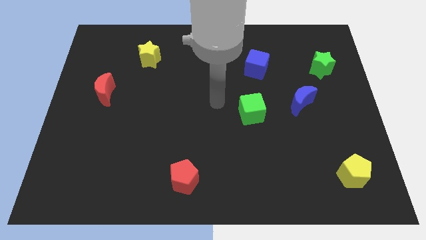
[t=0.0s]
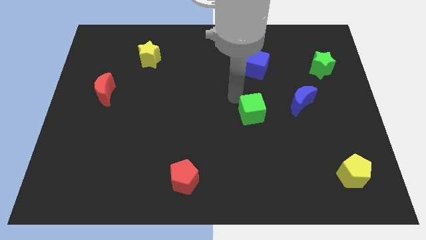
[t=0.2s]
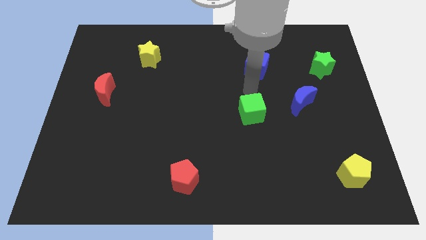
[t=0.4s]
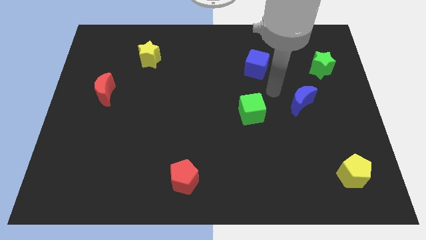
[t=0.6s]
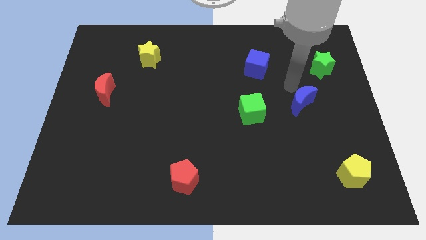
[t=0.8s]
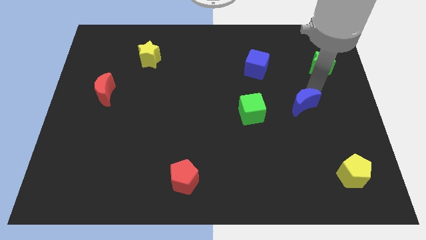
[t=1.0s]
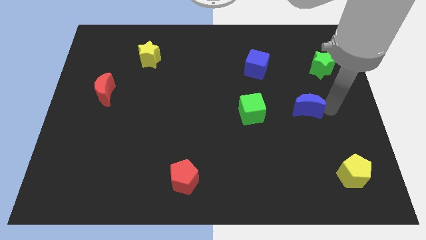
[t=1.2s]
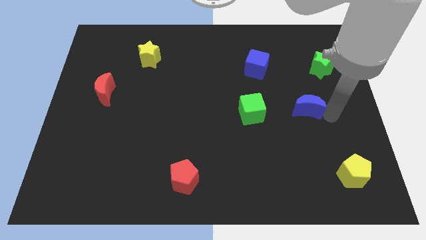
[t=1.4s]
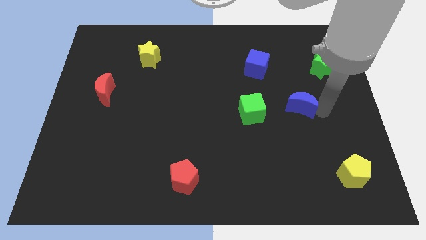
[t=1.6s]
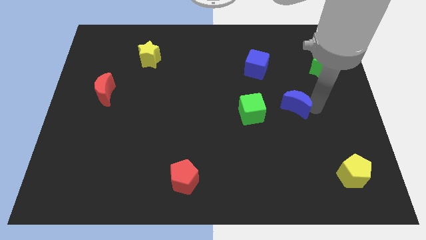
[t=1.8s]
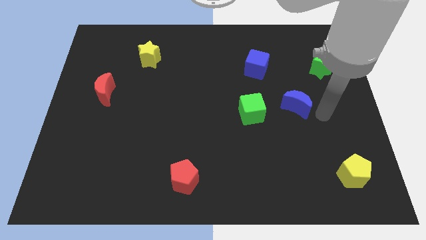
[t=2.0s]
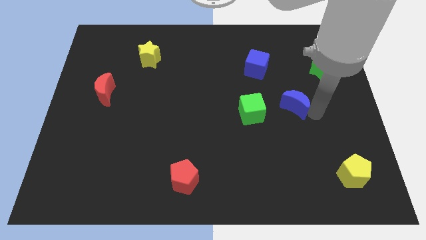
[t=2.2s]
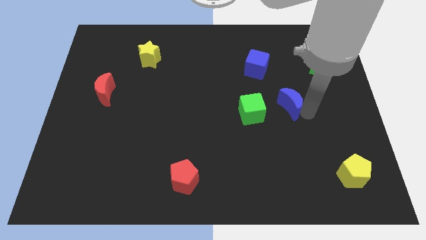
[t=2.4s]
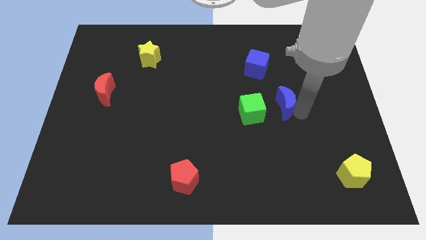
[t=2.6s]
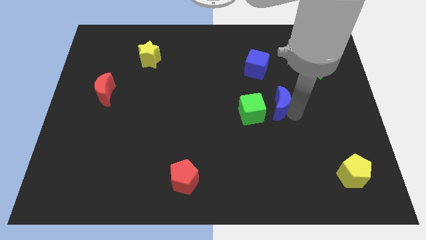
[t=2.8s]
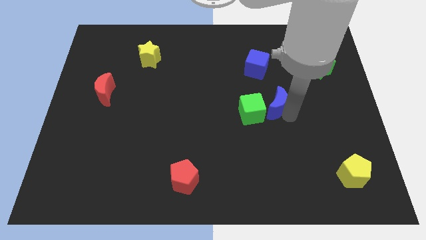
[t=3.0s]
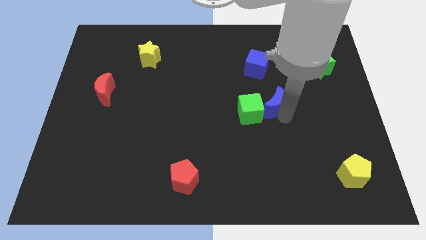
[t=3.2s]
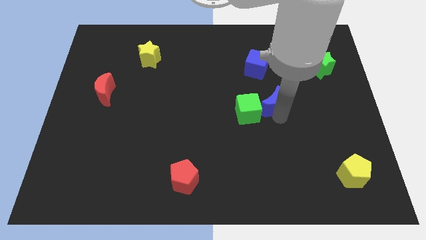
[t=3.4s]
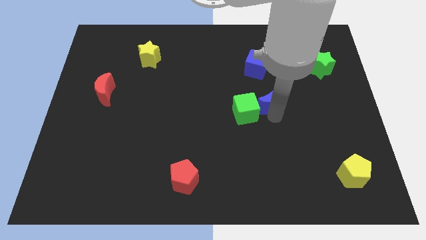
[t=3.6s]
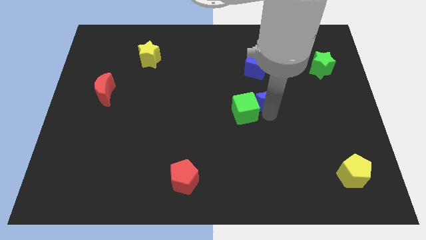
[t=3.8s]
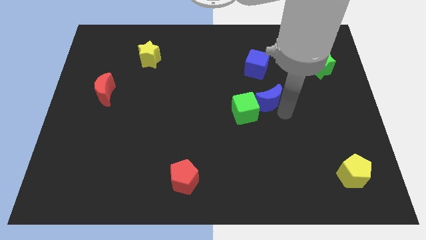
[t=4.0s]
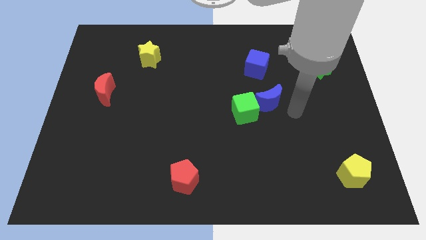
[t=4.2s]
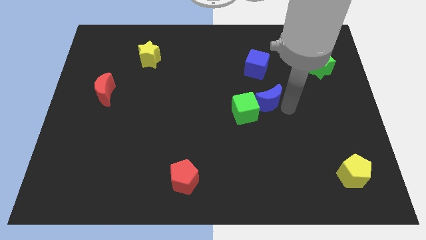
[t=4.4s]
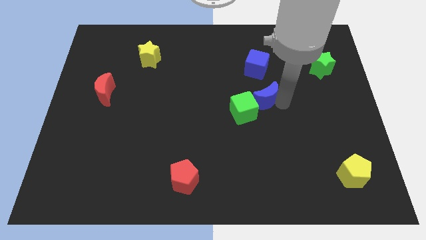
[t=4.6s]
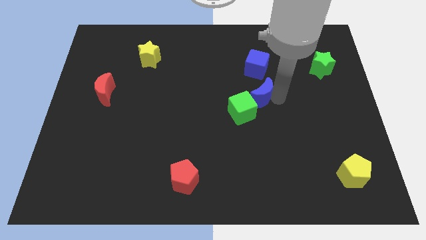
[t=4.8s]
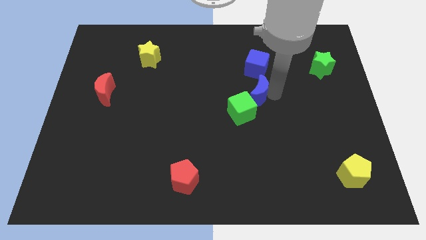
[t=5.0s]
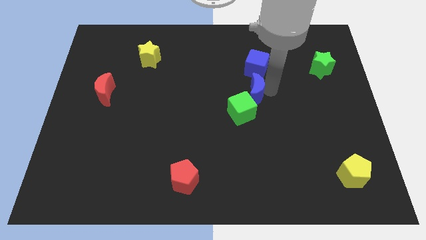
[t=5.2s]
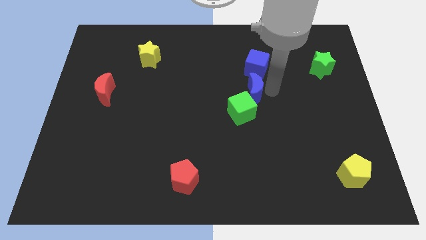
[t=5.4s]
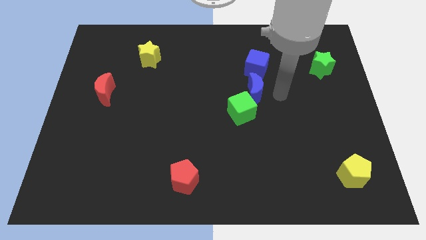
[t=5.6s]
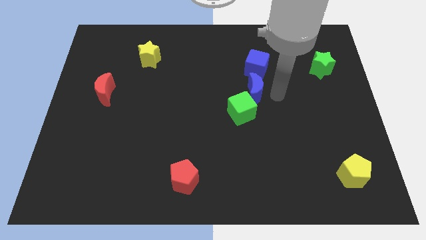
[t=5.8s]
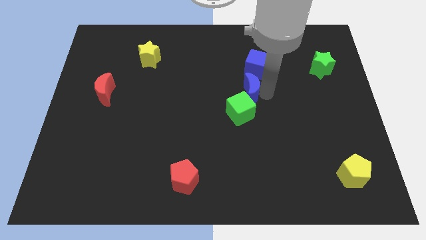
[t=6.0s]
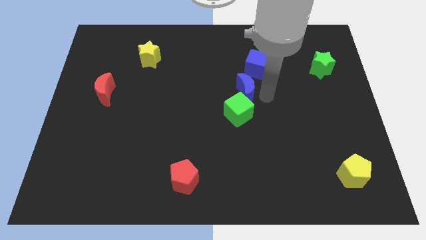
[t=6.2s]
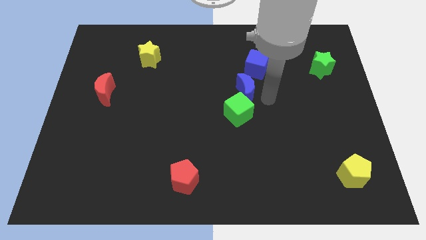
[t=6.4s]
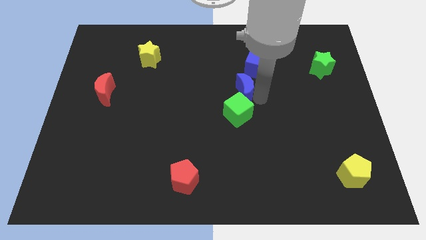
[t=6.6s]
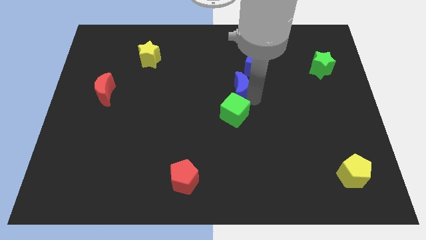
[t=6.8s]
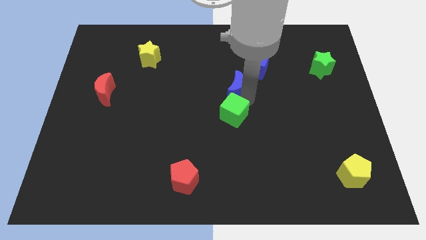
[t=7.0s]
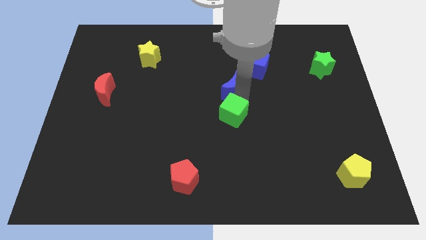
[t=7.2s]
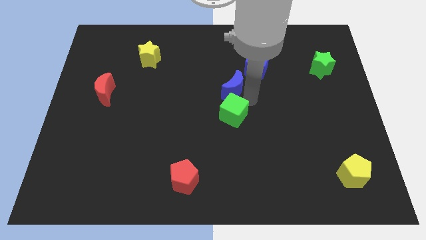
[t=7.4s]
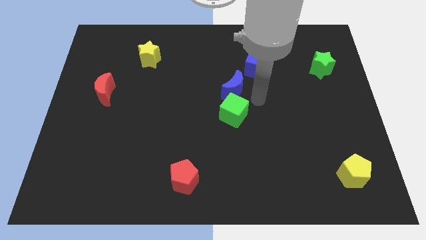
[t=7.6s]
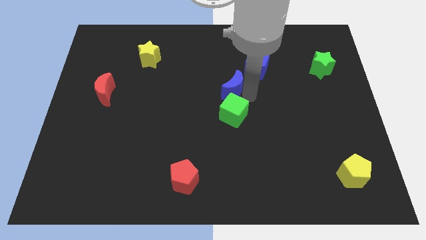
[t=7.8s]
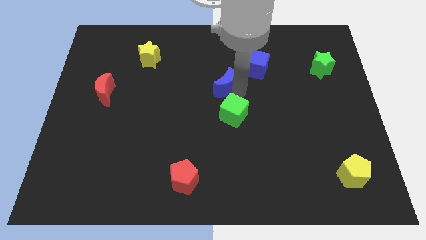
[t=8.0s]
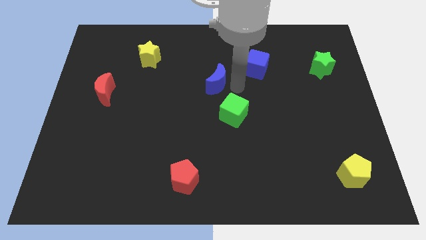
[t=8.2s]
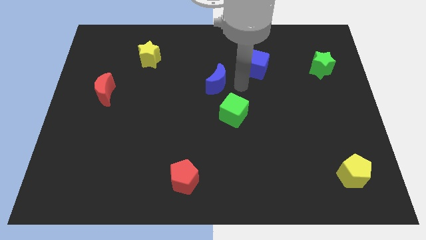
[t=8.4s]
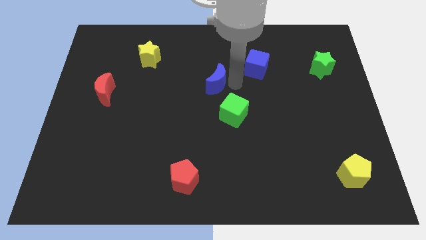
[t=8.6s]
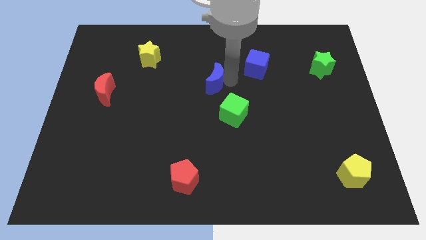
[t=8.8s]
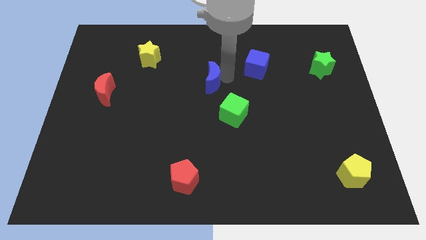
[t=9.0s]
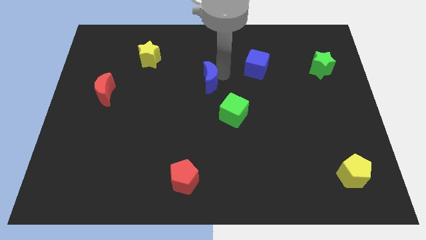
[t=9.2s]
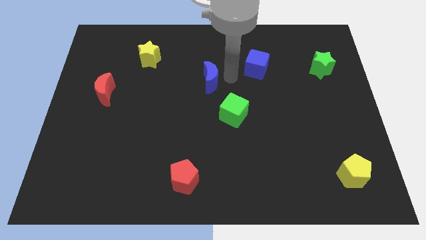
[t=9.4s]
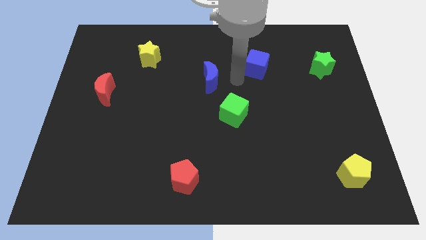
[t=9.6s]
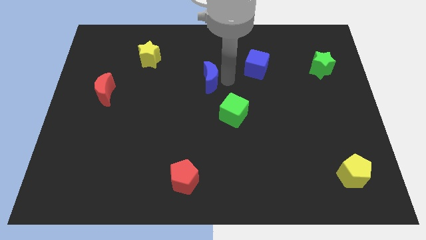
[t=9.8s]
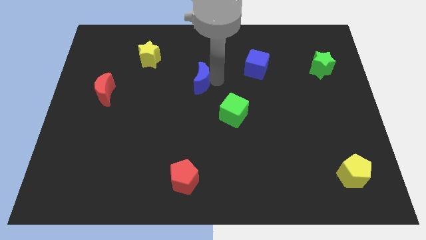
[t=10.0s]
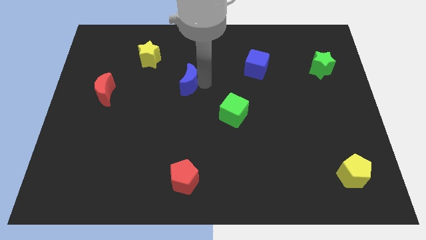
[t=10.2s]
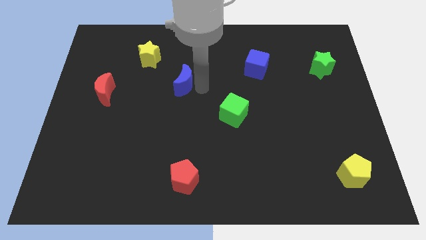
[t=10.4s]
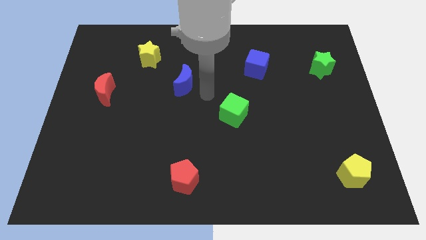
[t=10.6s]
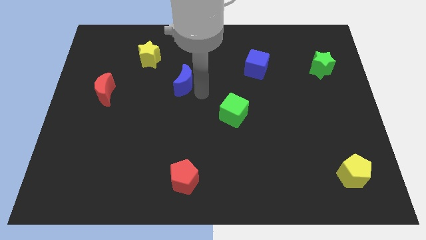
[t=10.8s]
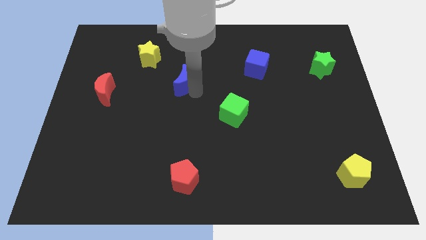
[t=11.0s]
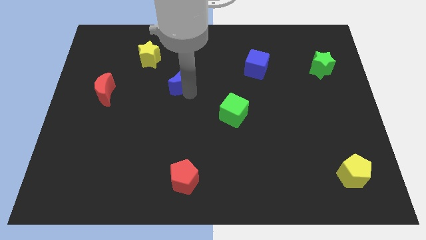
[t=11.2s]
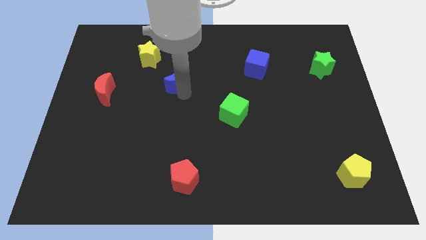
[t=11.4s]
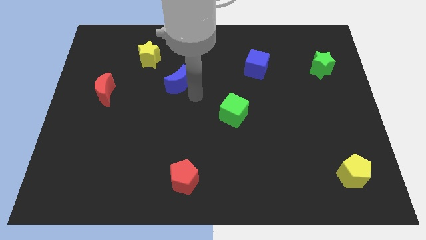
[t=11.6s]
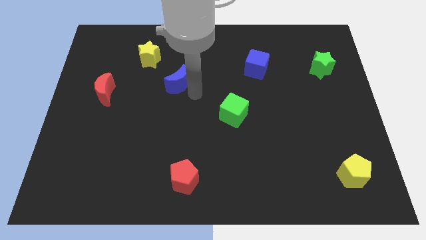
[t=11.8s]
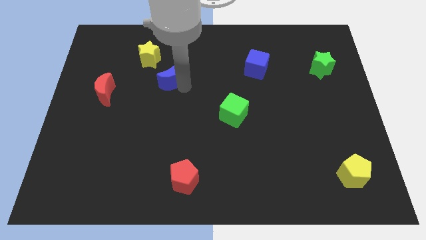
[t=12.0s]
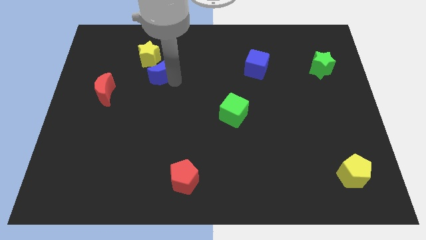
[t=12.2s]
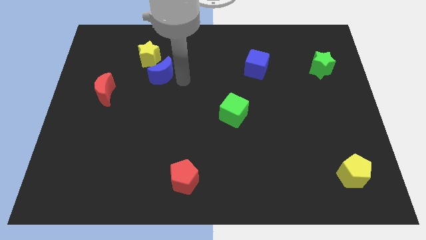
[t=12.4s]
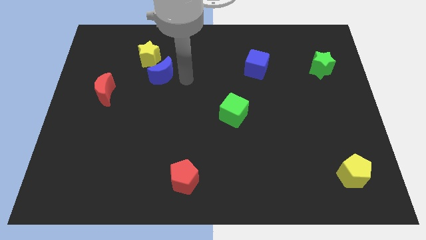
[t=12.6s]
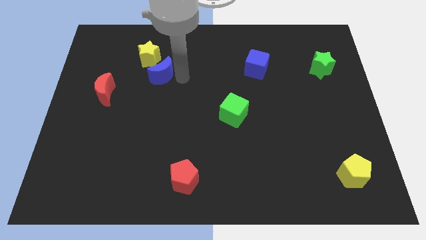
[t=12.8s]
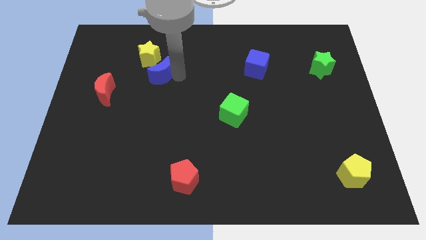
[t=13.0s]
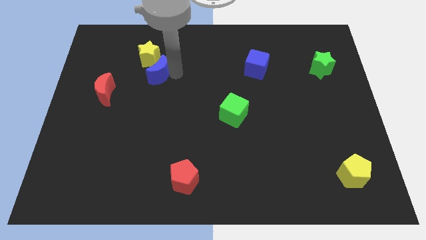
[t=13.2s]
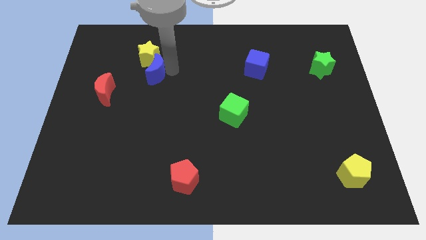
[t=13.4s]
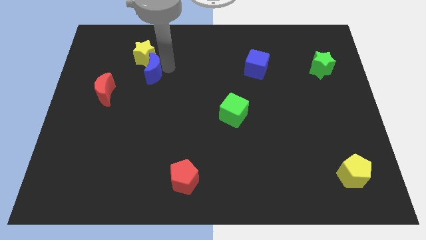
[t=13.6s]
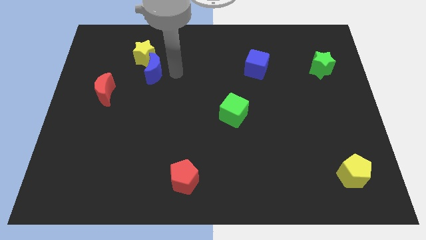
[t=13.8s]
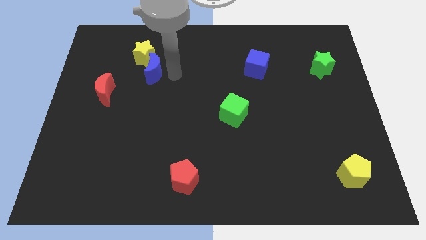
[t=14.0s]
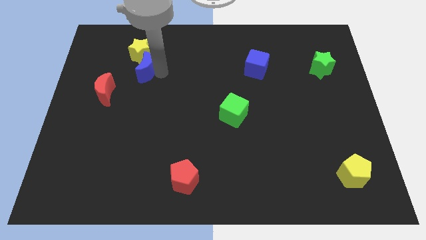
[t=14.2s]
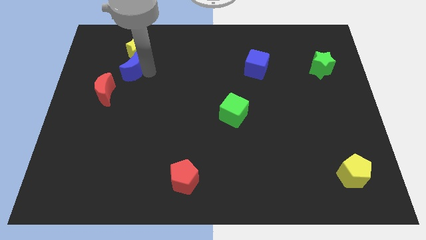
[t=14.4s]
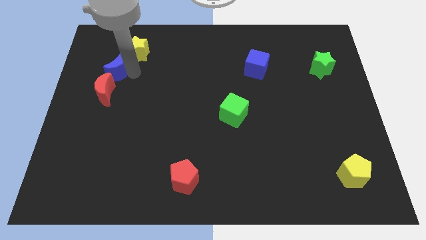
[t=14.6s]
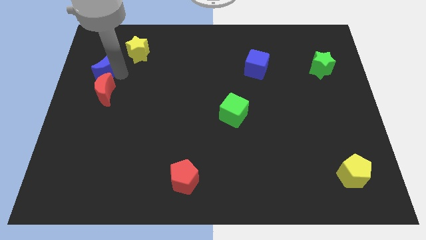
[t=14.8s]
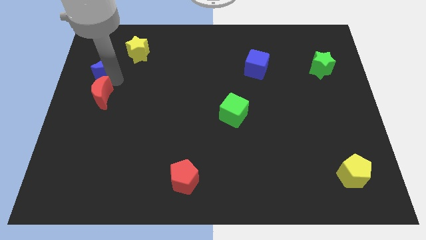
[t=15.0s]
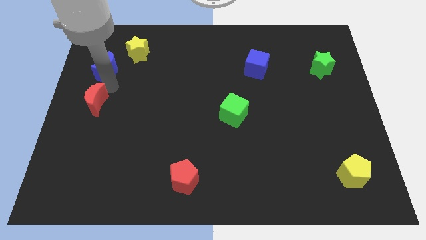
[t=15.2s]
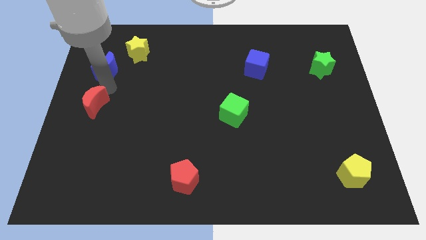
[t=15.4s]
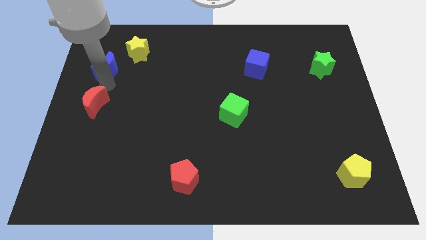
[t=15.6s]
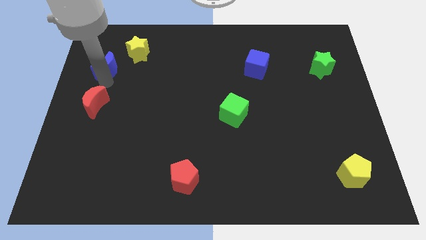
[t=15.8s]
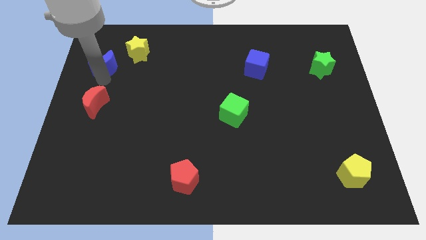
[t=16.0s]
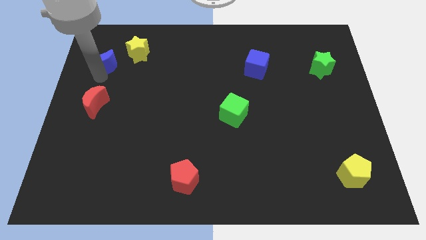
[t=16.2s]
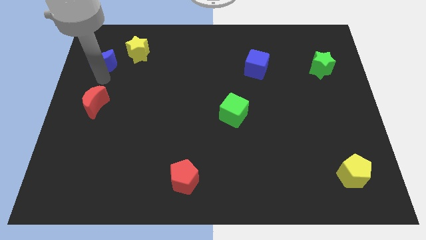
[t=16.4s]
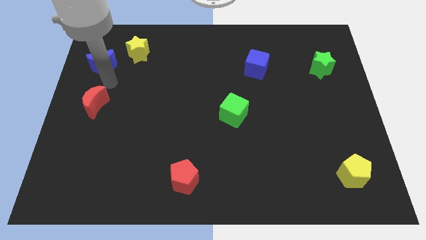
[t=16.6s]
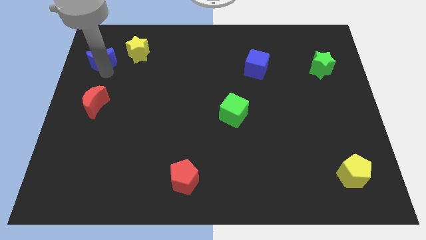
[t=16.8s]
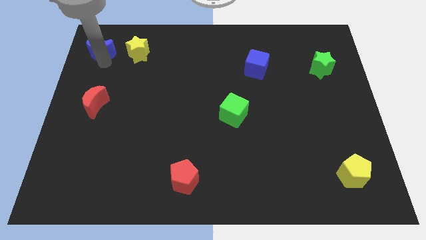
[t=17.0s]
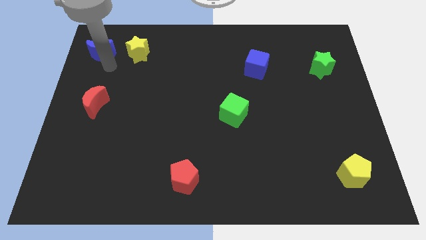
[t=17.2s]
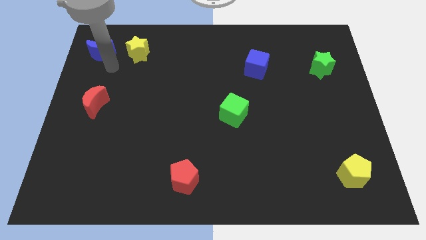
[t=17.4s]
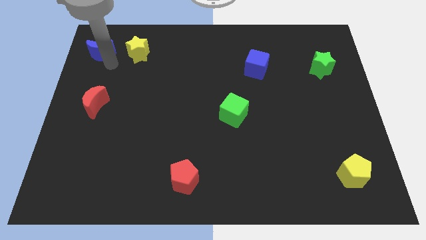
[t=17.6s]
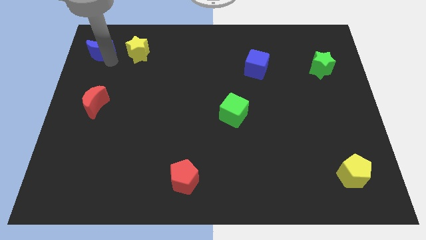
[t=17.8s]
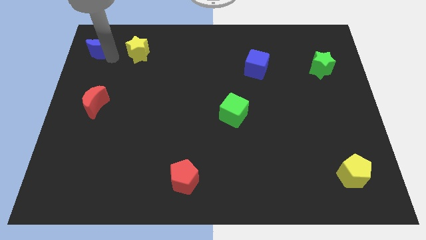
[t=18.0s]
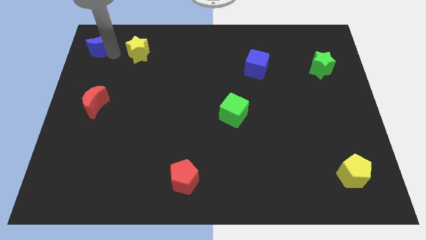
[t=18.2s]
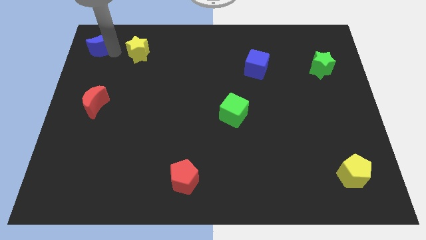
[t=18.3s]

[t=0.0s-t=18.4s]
move the blue moon to the upper left corner
